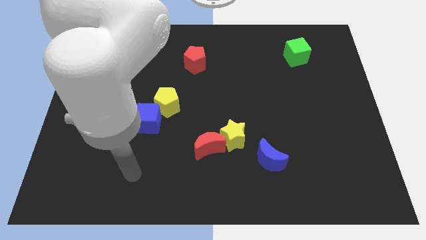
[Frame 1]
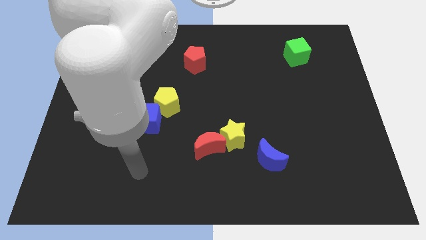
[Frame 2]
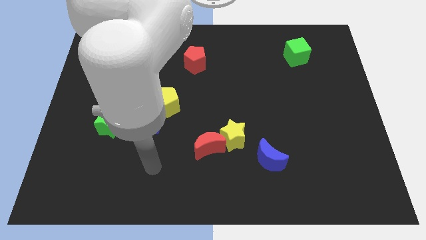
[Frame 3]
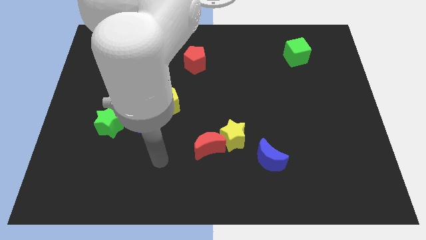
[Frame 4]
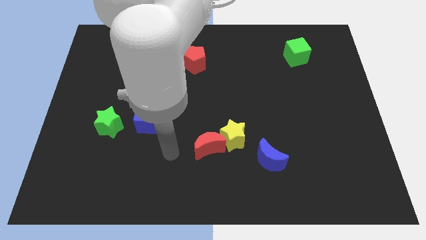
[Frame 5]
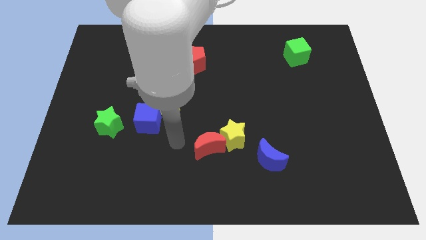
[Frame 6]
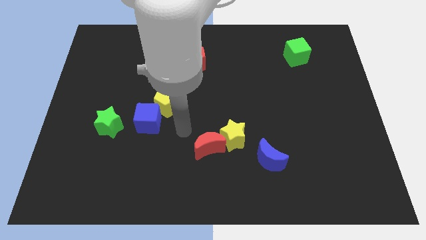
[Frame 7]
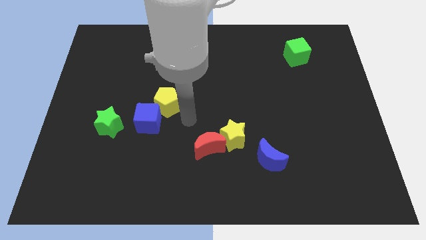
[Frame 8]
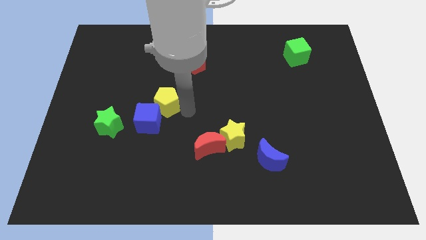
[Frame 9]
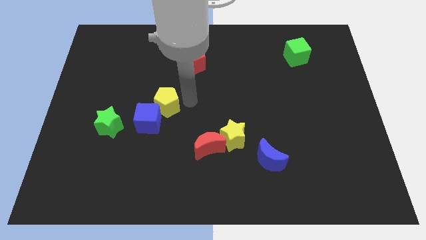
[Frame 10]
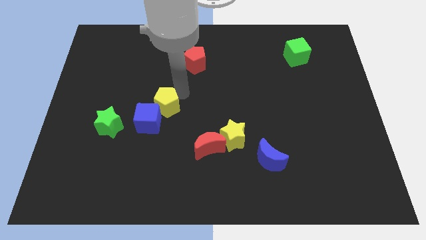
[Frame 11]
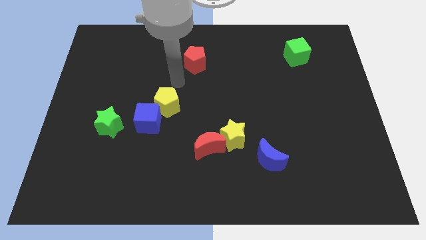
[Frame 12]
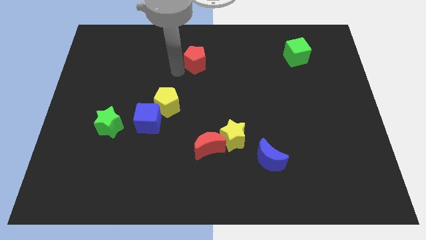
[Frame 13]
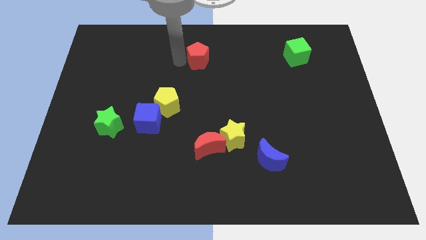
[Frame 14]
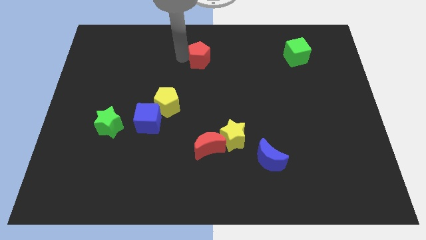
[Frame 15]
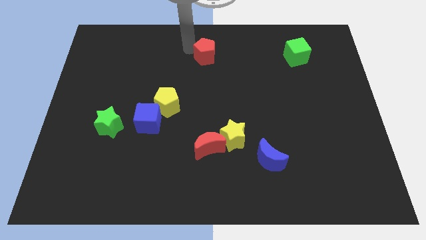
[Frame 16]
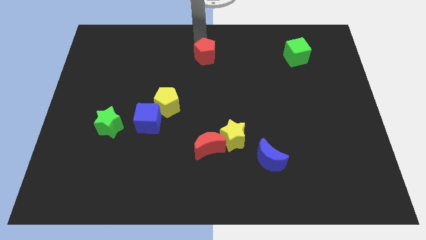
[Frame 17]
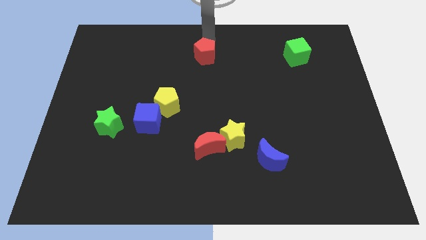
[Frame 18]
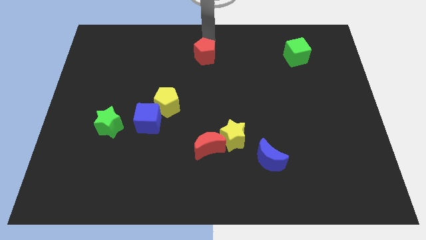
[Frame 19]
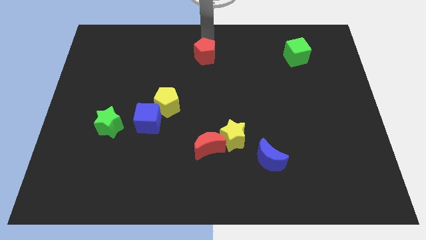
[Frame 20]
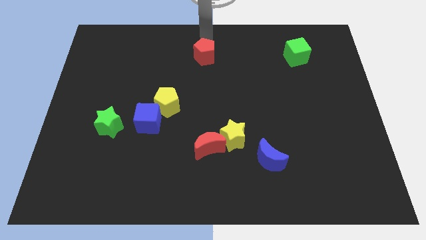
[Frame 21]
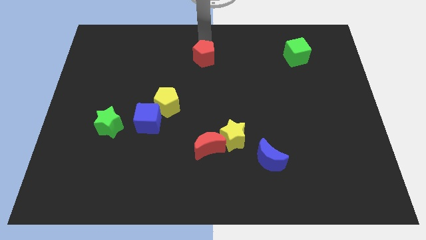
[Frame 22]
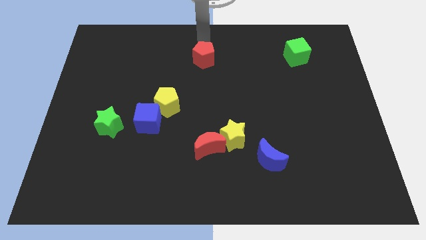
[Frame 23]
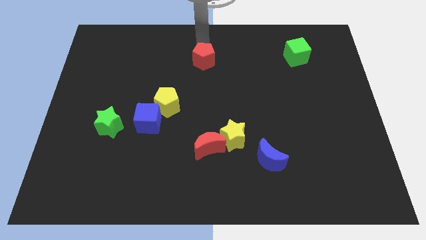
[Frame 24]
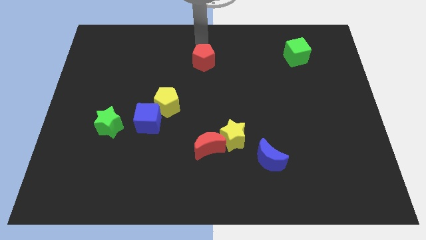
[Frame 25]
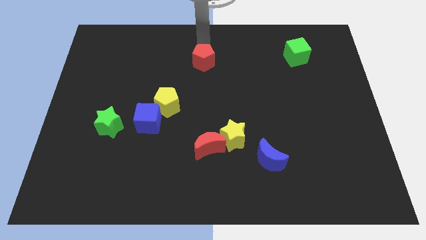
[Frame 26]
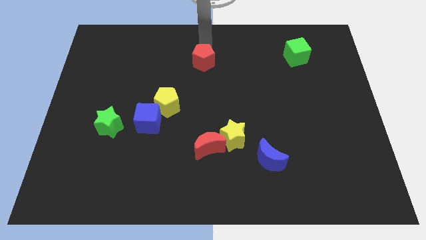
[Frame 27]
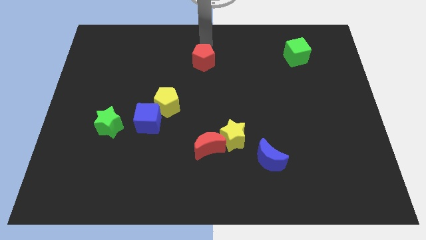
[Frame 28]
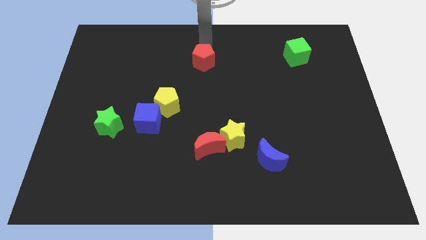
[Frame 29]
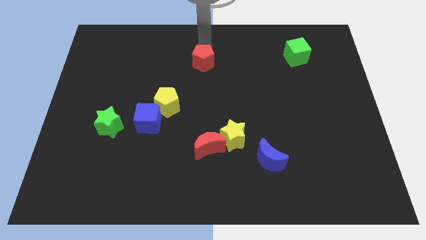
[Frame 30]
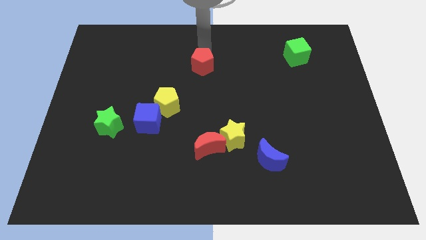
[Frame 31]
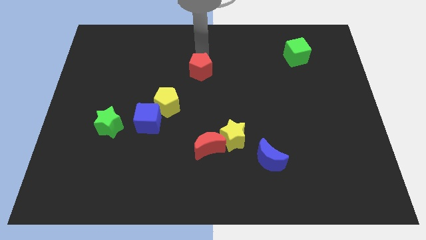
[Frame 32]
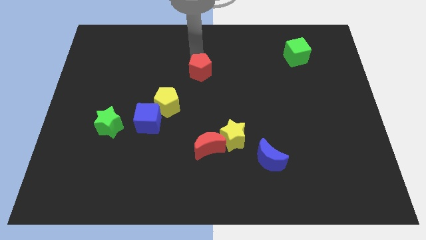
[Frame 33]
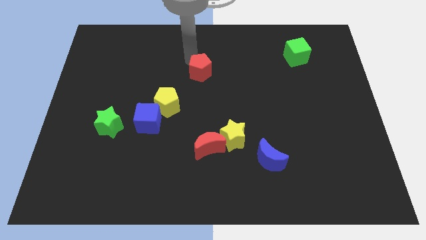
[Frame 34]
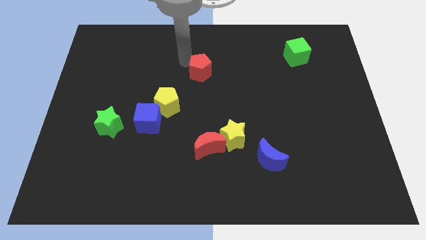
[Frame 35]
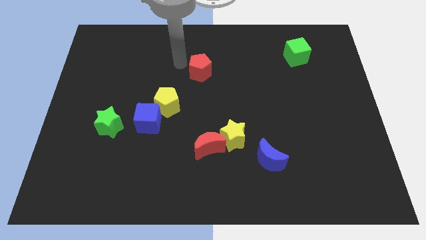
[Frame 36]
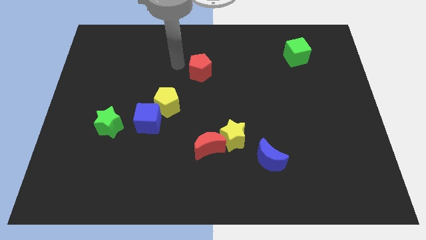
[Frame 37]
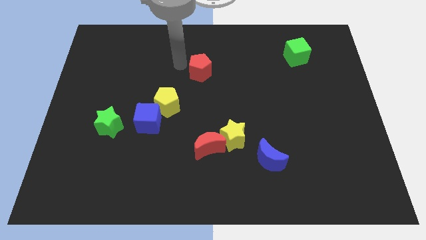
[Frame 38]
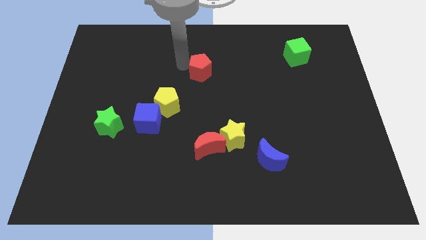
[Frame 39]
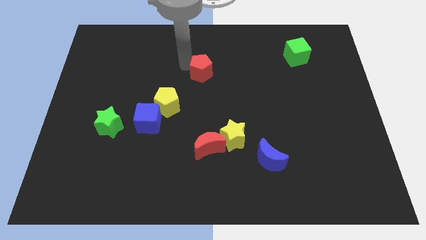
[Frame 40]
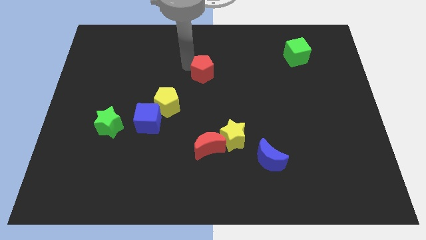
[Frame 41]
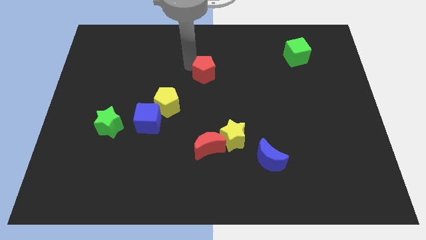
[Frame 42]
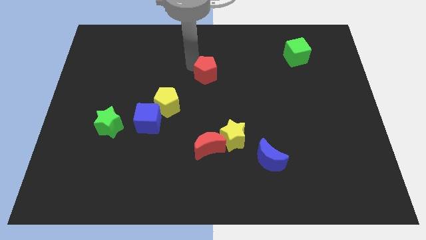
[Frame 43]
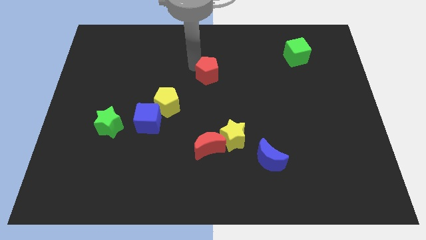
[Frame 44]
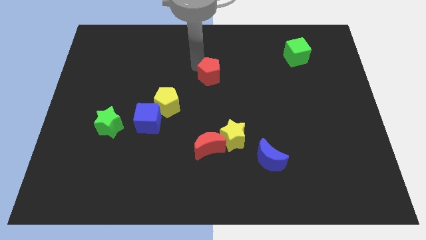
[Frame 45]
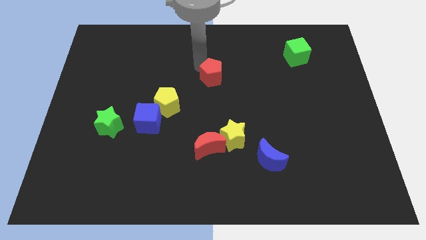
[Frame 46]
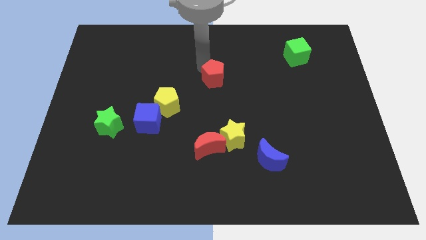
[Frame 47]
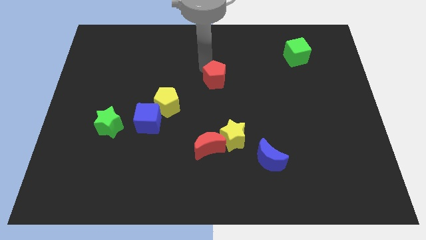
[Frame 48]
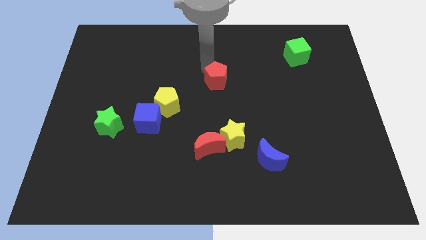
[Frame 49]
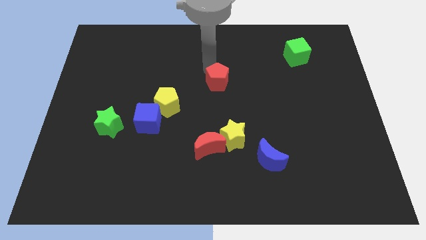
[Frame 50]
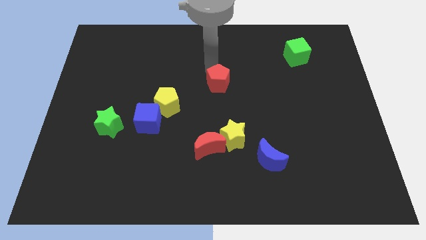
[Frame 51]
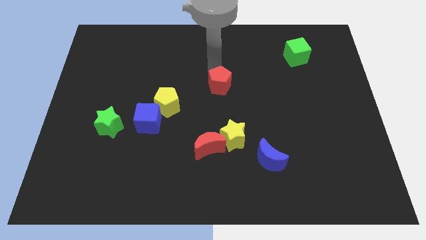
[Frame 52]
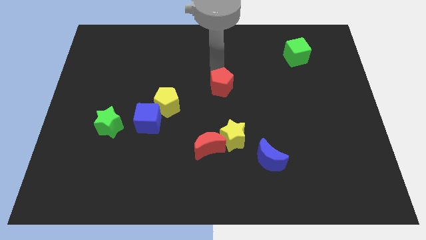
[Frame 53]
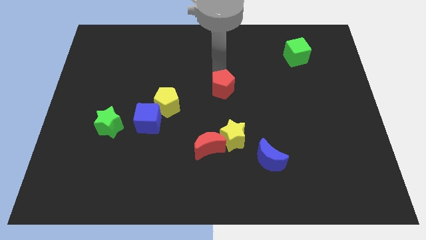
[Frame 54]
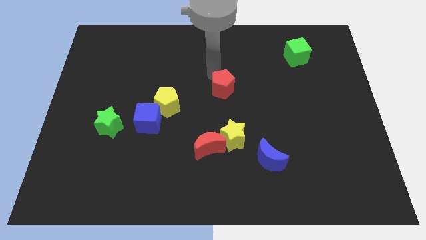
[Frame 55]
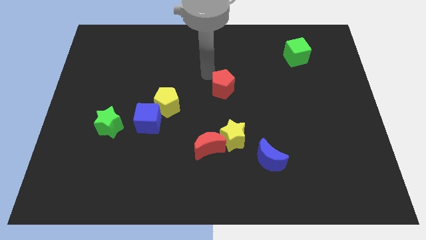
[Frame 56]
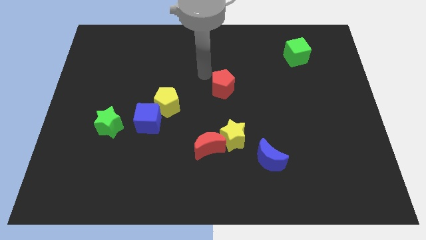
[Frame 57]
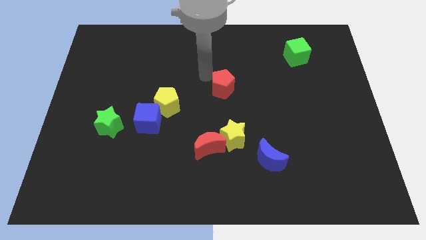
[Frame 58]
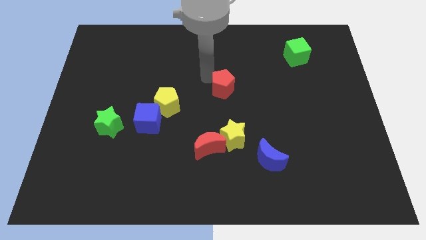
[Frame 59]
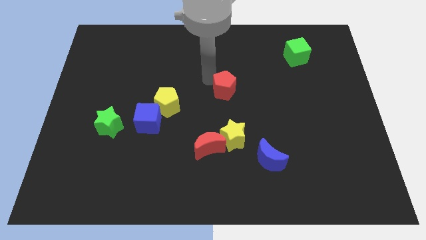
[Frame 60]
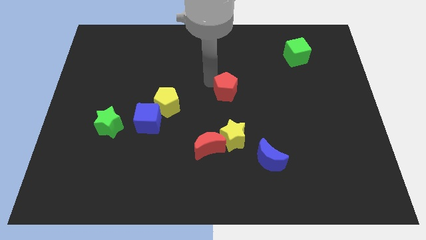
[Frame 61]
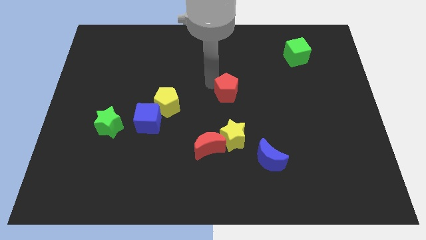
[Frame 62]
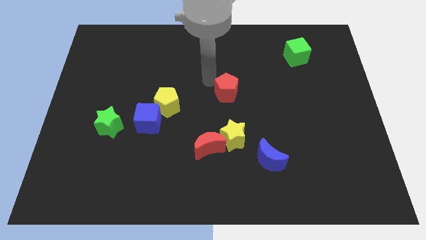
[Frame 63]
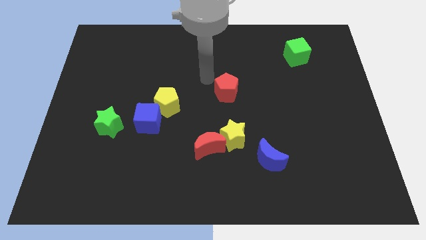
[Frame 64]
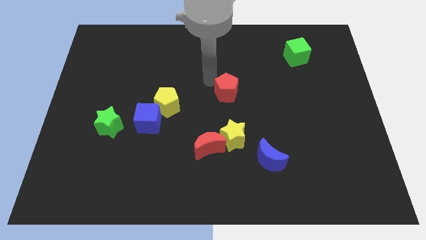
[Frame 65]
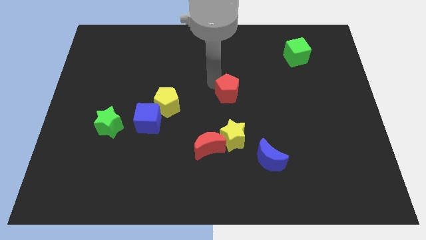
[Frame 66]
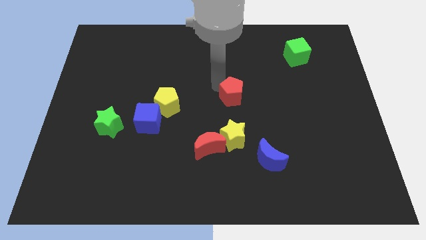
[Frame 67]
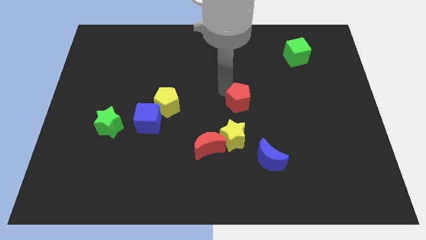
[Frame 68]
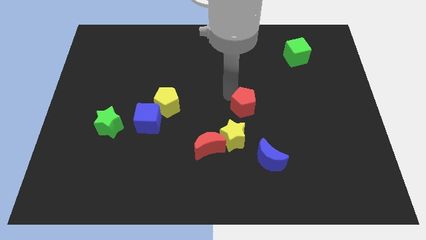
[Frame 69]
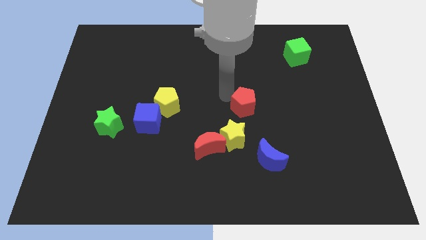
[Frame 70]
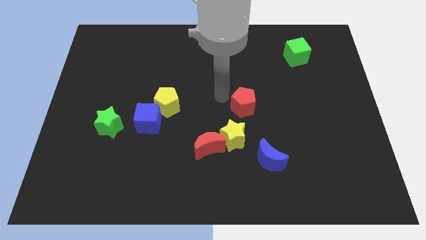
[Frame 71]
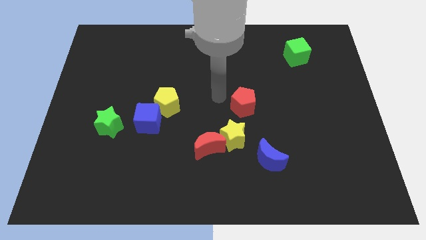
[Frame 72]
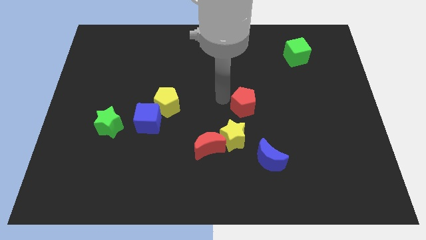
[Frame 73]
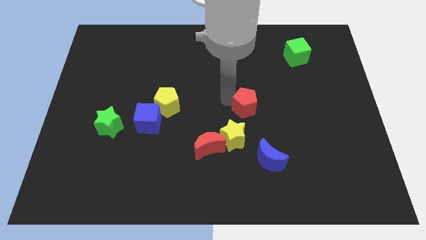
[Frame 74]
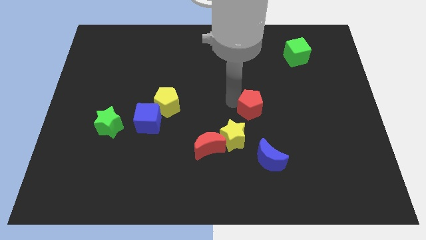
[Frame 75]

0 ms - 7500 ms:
move the red pentagon downwards and then to the right

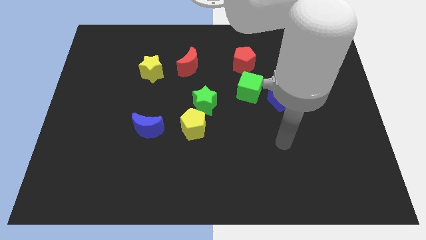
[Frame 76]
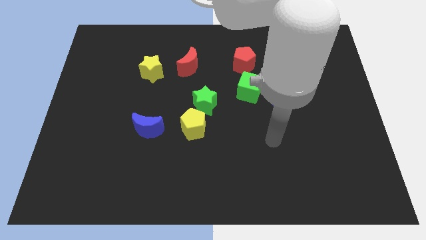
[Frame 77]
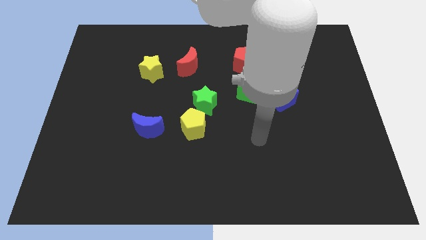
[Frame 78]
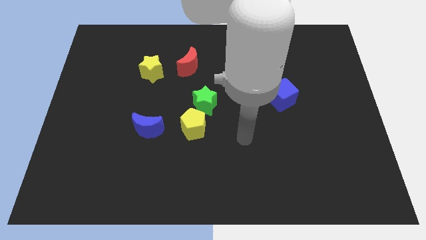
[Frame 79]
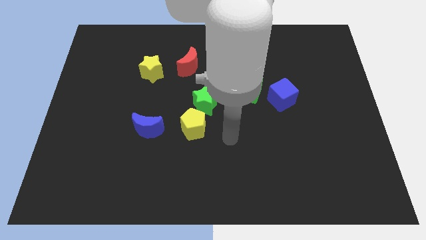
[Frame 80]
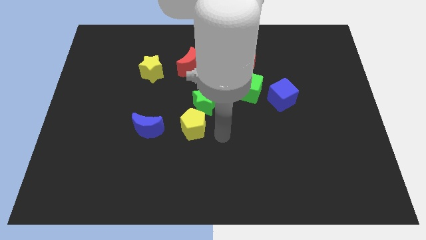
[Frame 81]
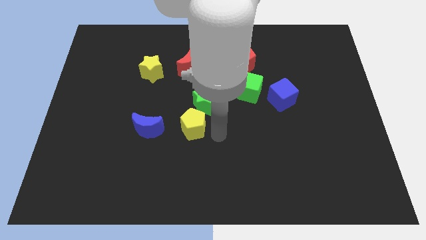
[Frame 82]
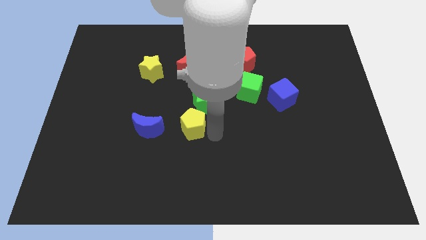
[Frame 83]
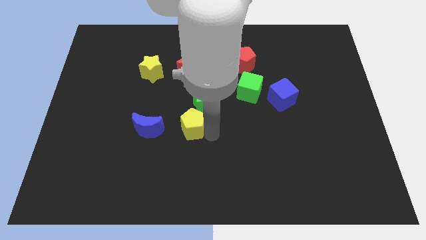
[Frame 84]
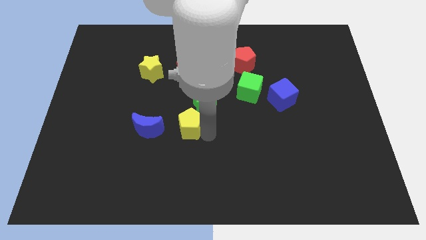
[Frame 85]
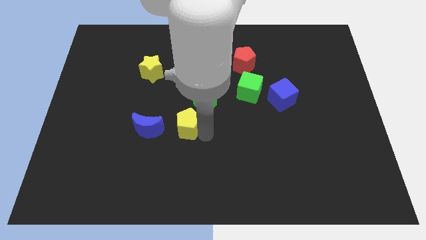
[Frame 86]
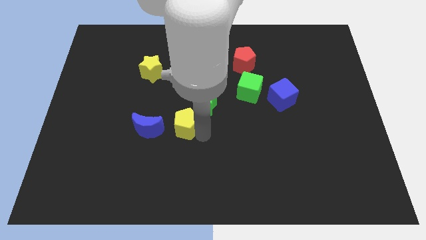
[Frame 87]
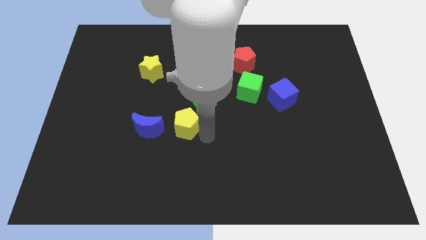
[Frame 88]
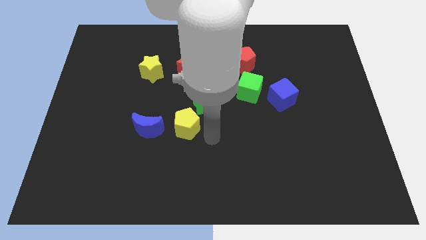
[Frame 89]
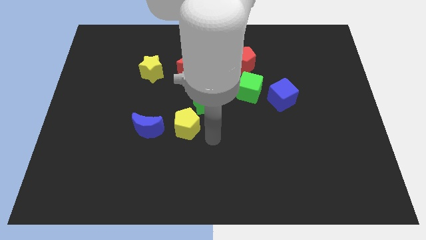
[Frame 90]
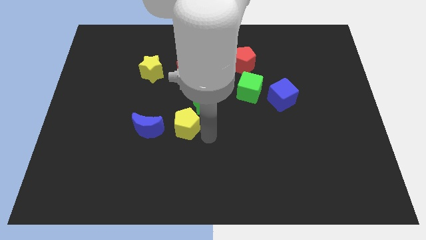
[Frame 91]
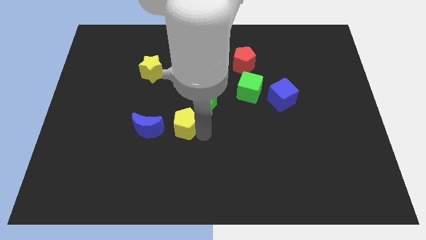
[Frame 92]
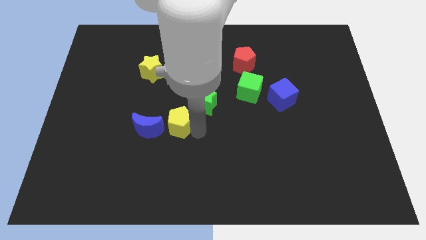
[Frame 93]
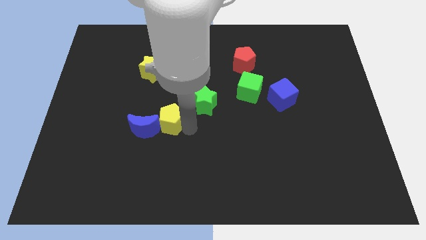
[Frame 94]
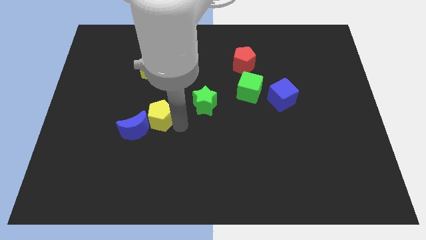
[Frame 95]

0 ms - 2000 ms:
slightly push the yellow pentagon left
